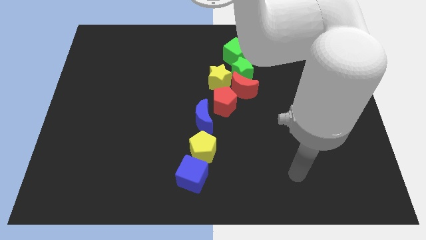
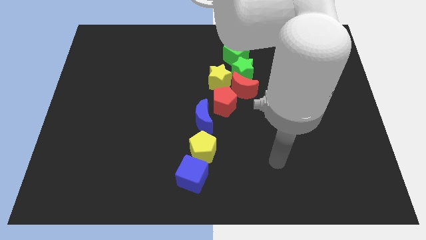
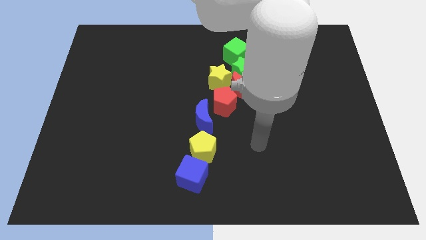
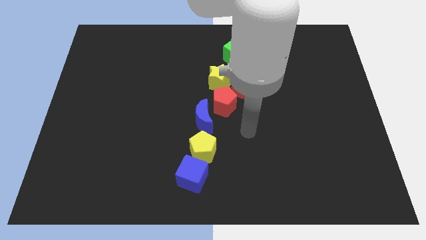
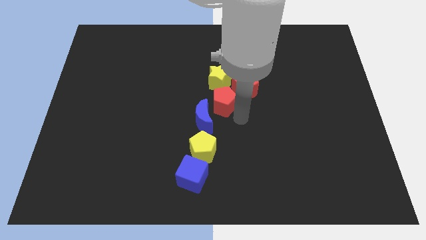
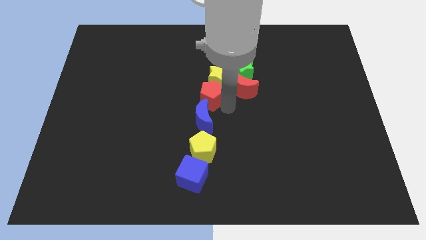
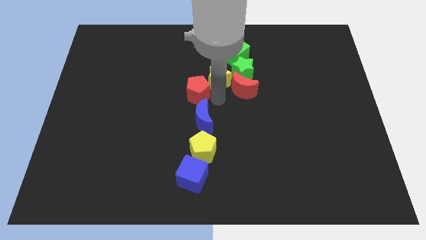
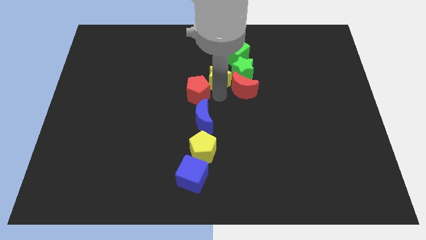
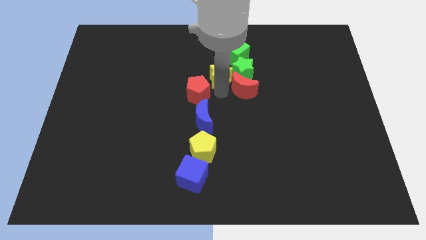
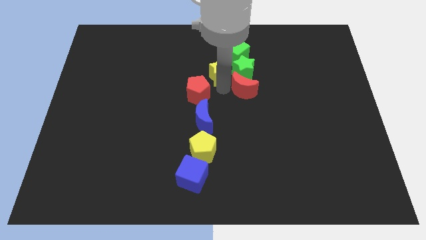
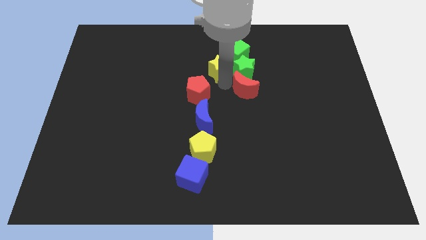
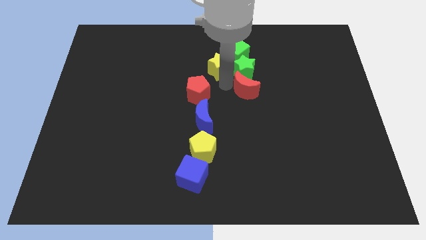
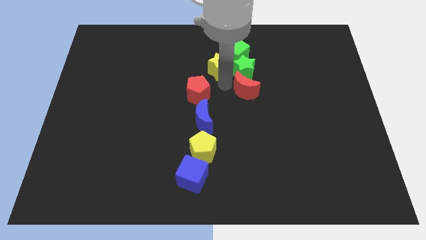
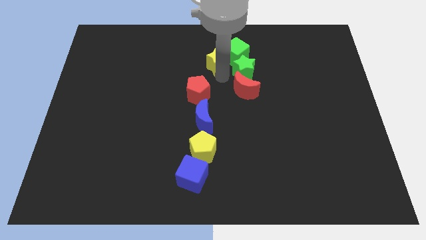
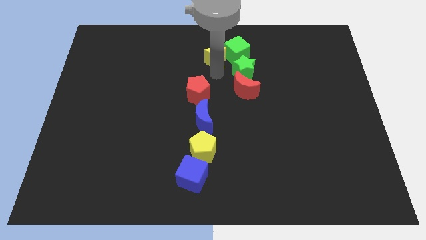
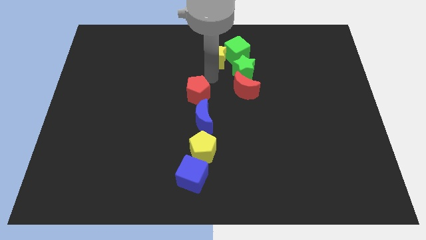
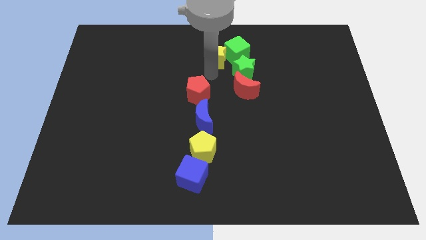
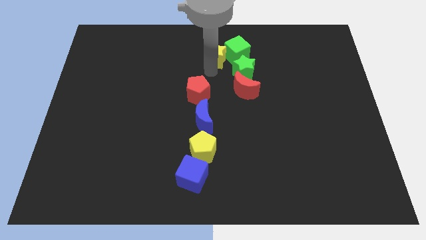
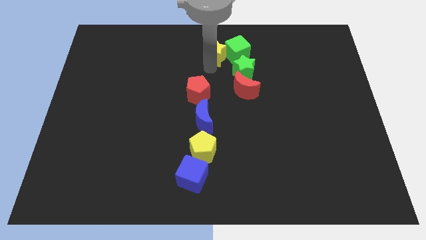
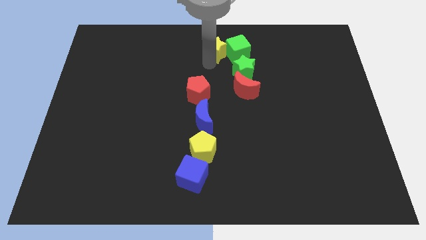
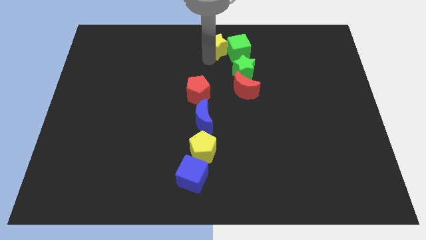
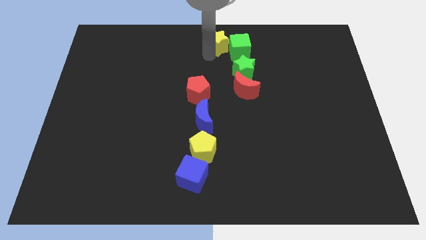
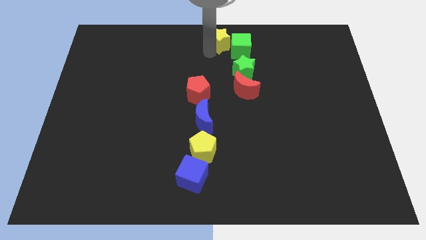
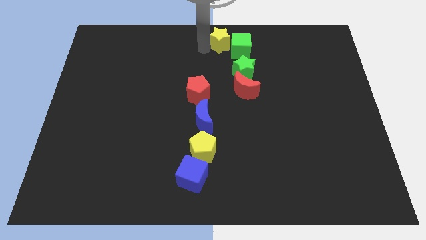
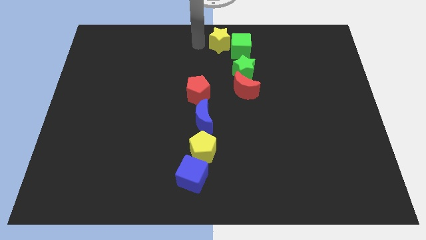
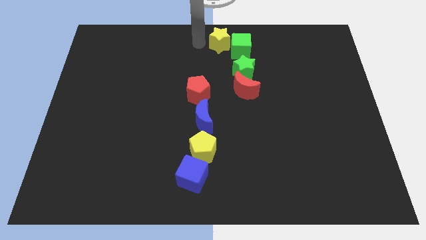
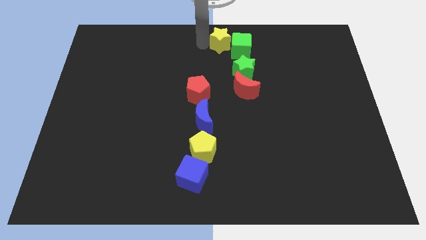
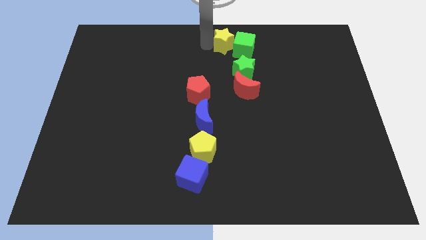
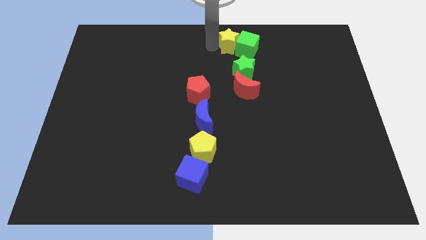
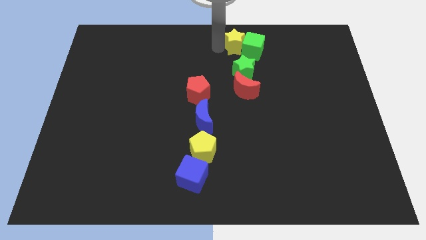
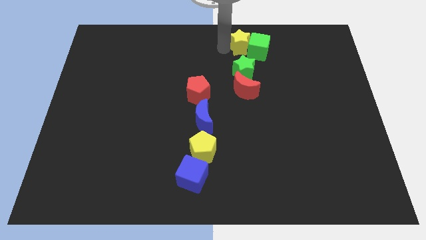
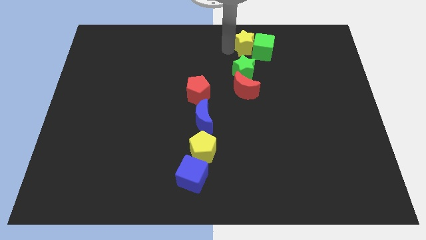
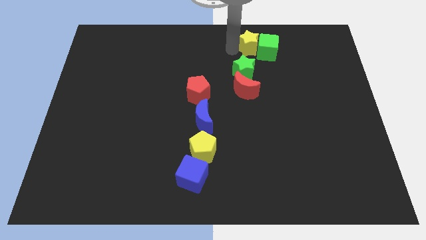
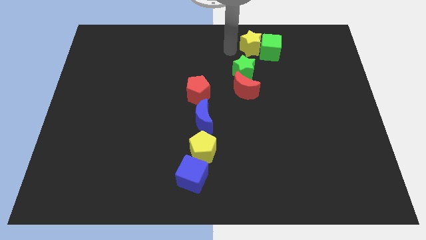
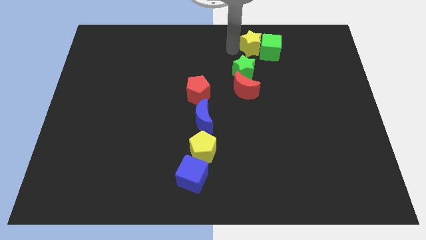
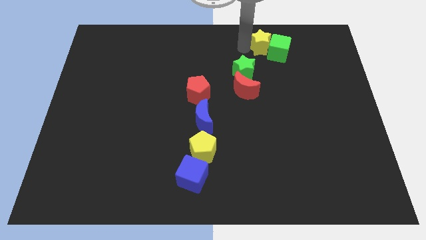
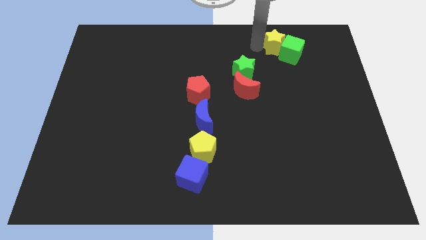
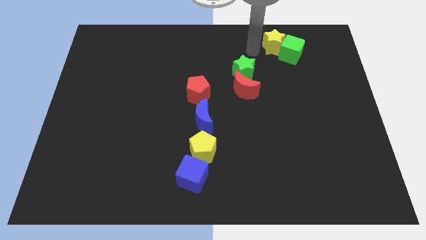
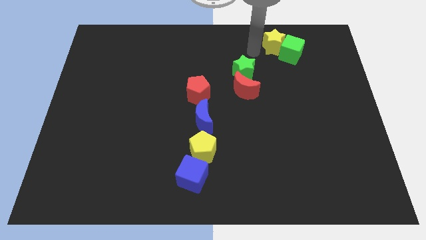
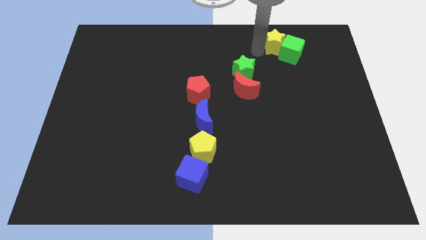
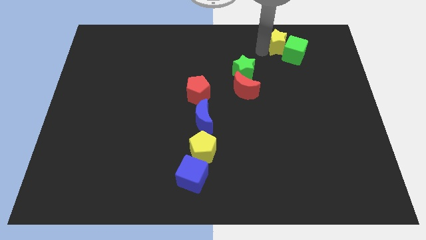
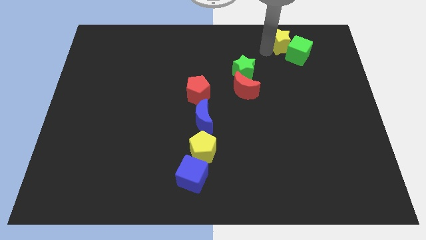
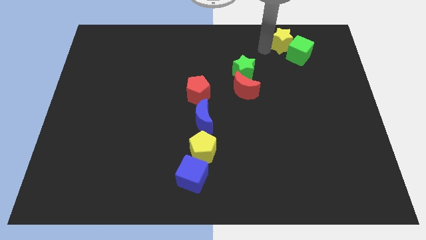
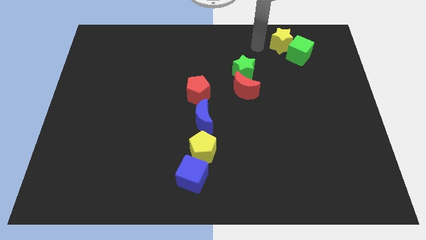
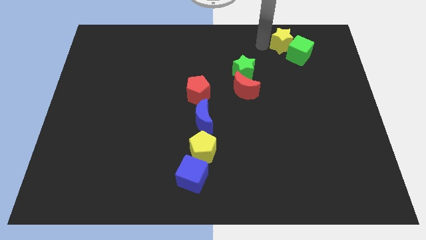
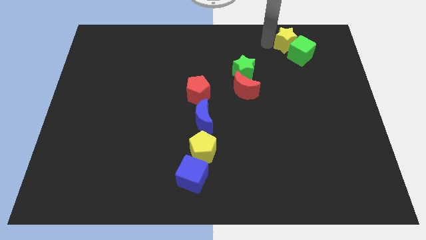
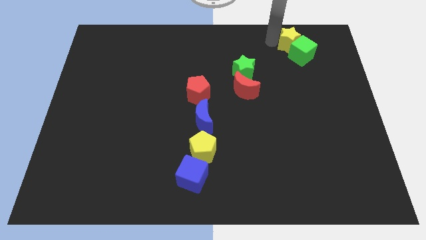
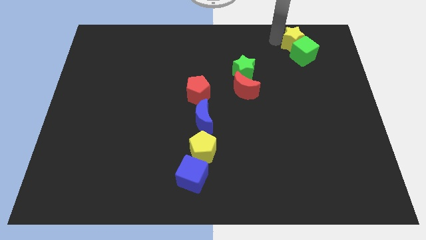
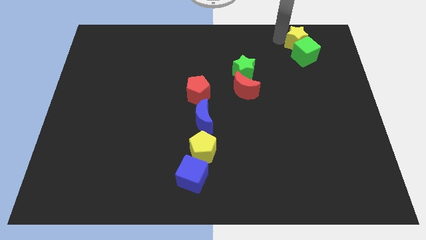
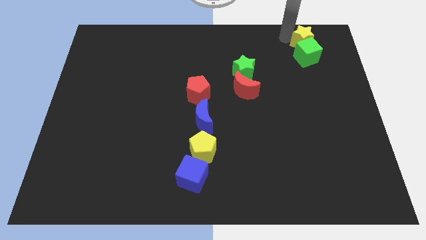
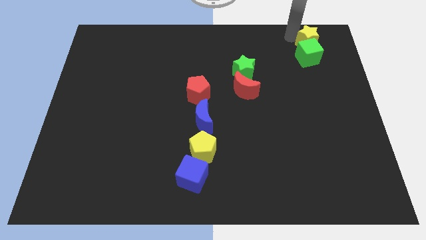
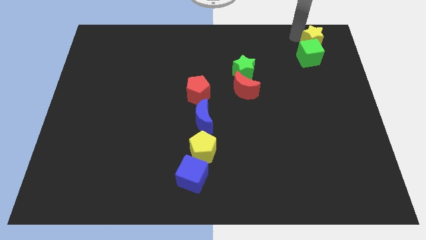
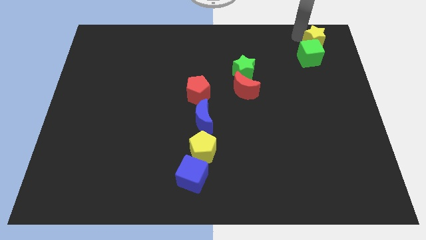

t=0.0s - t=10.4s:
put the yellow star to the top right

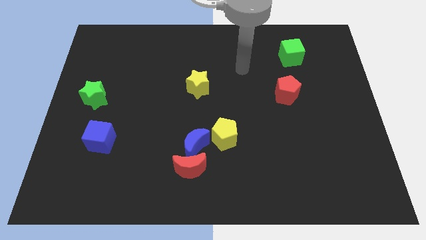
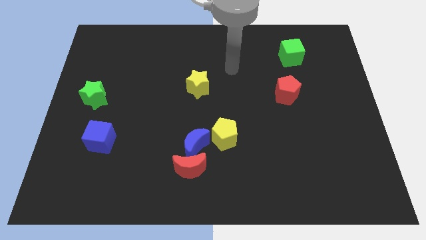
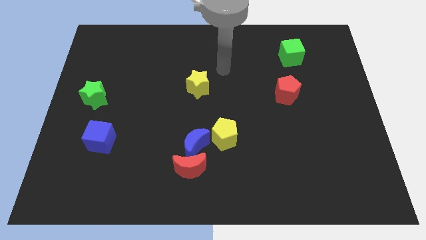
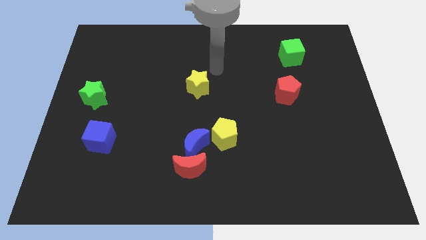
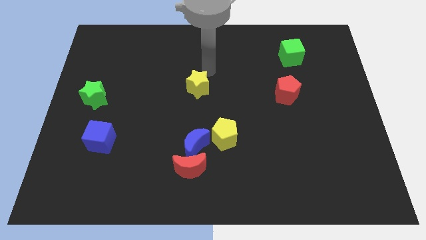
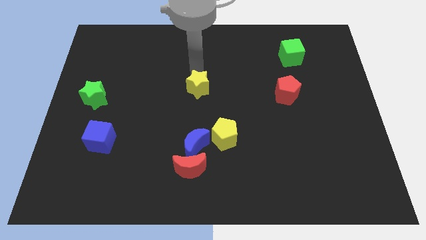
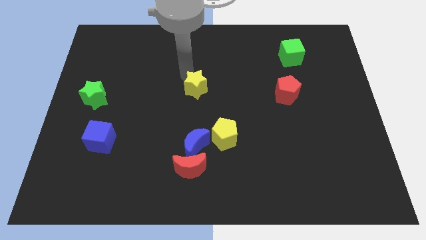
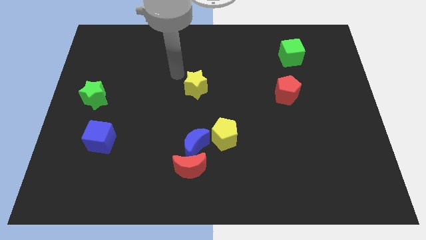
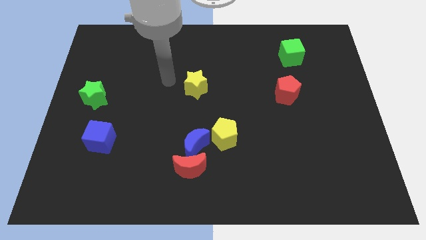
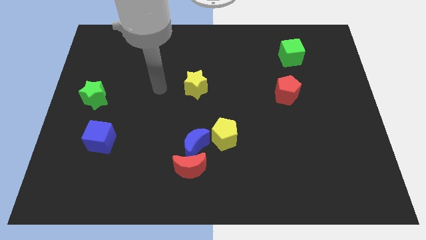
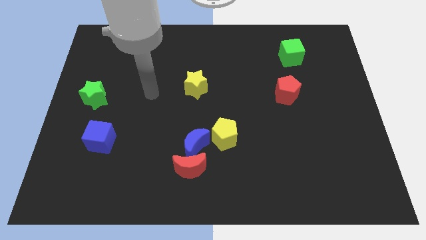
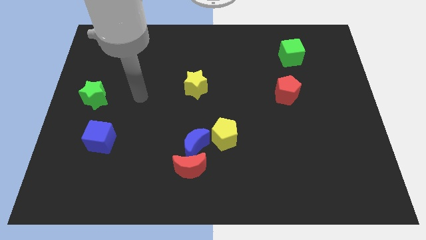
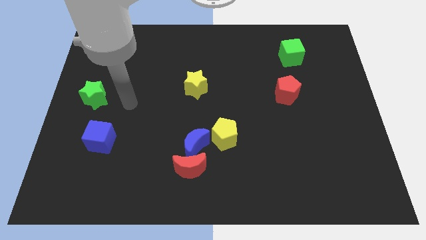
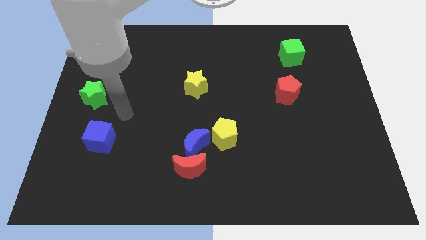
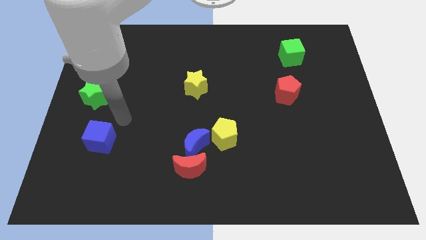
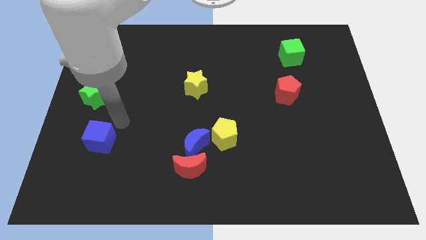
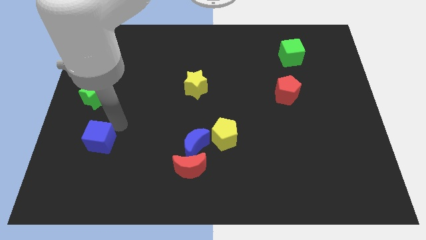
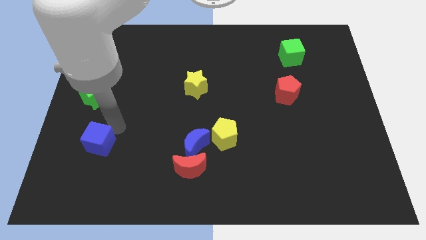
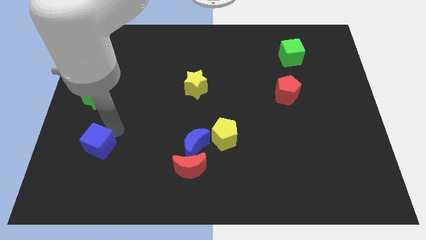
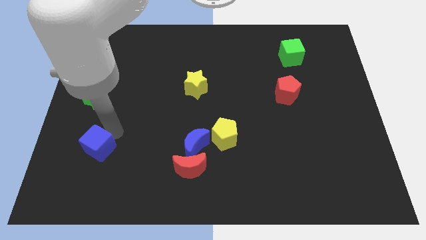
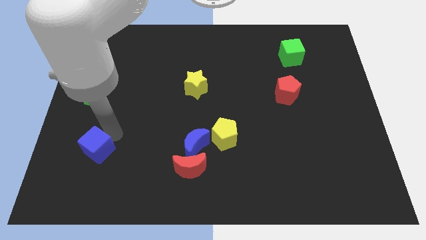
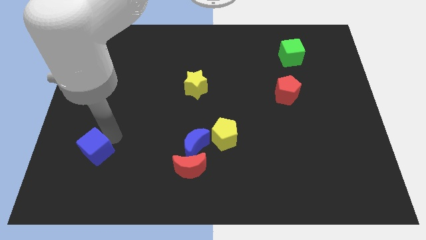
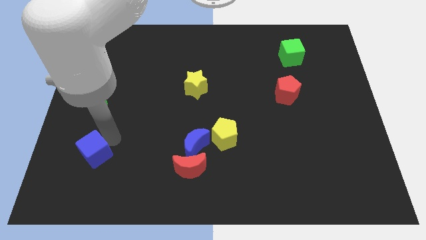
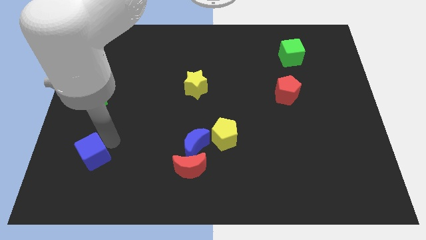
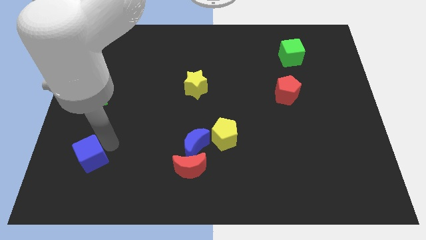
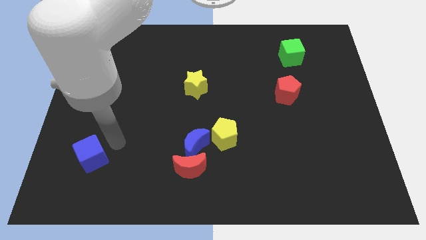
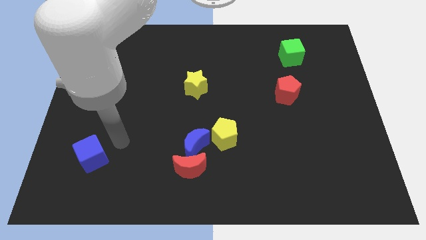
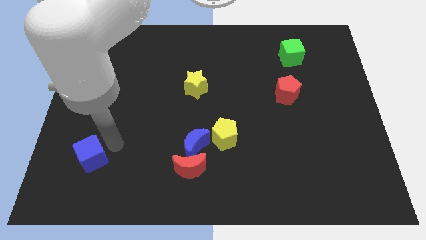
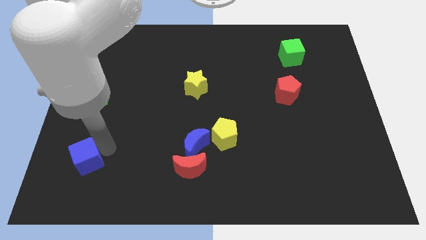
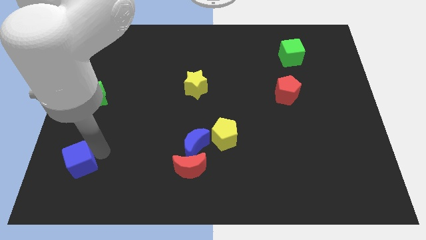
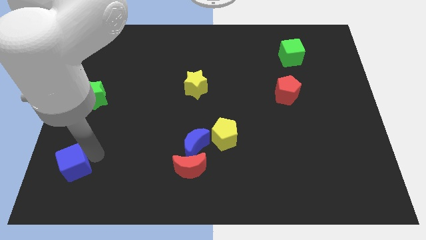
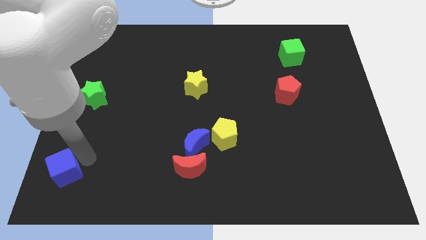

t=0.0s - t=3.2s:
put the blue cube to the bottom left corner
